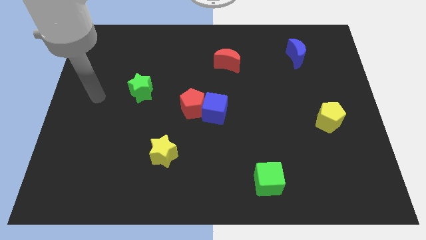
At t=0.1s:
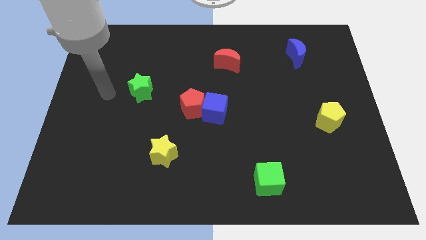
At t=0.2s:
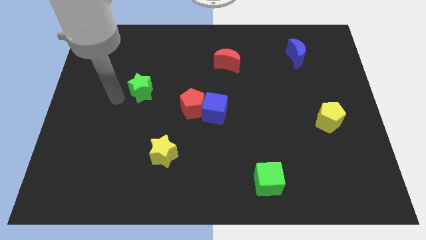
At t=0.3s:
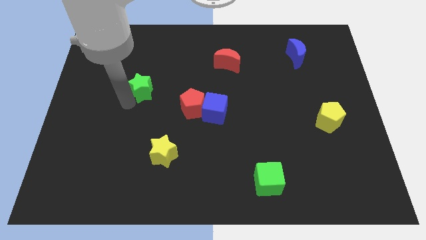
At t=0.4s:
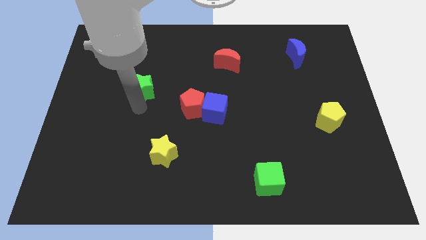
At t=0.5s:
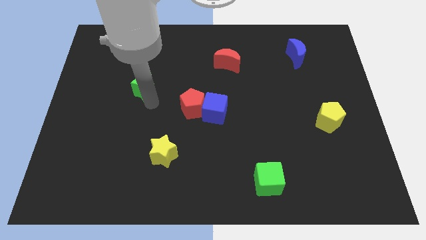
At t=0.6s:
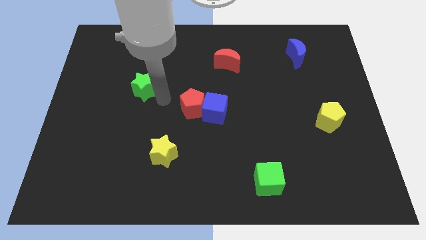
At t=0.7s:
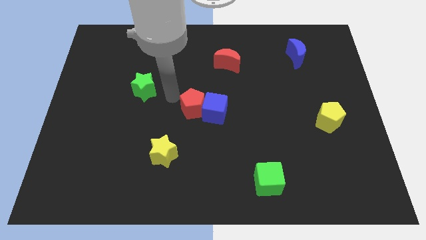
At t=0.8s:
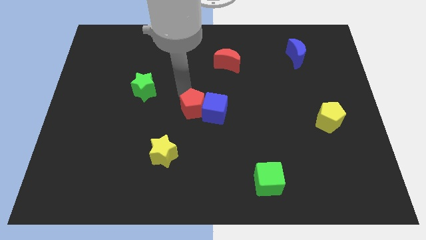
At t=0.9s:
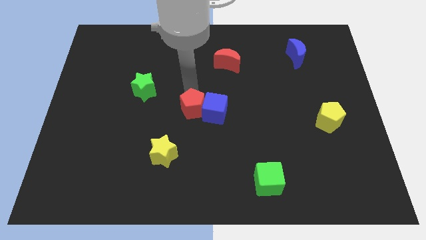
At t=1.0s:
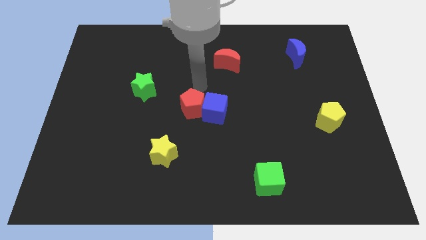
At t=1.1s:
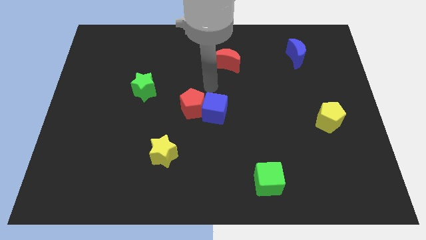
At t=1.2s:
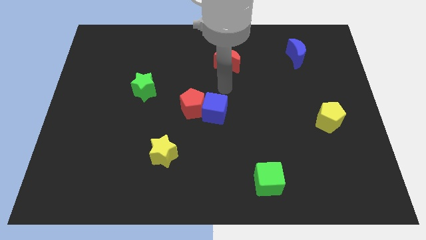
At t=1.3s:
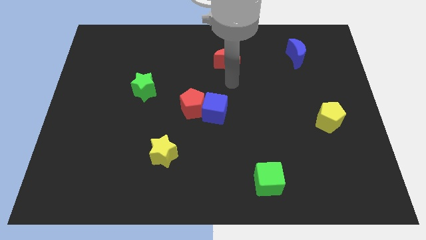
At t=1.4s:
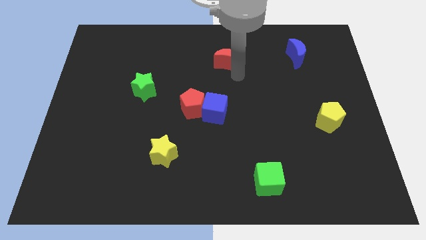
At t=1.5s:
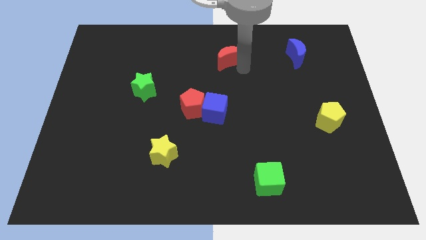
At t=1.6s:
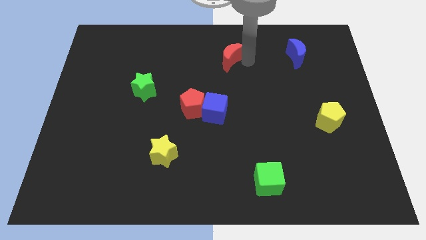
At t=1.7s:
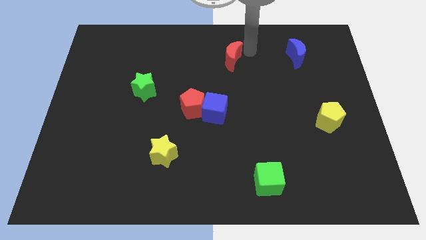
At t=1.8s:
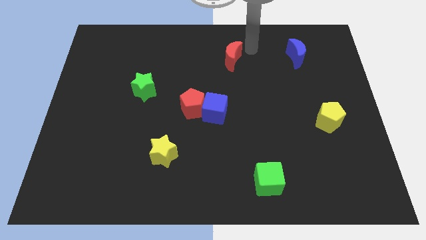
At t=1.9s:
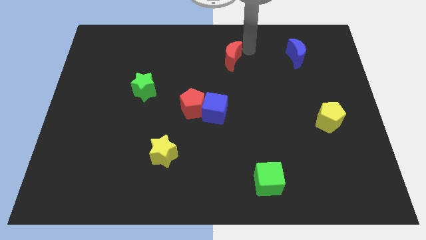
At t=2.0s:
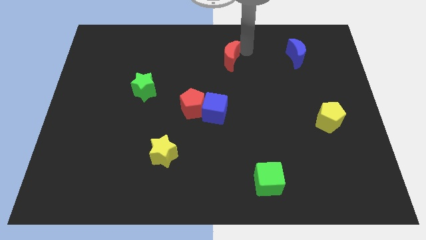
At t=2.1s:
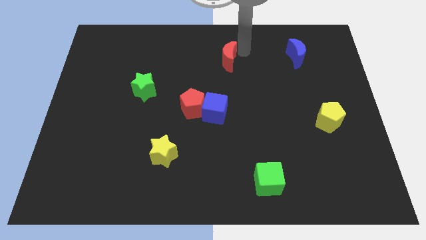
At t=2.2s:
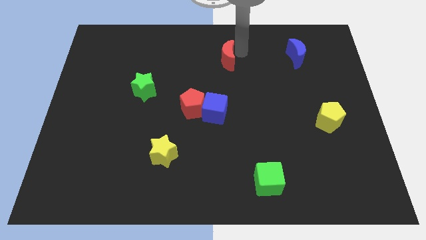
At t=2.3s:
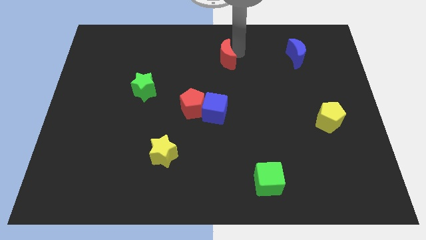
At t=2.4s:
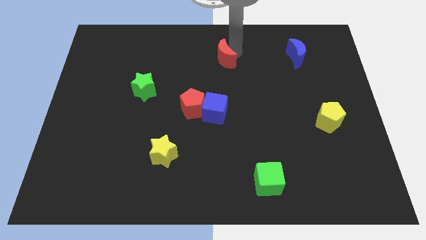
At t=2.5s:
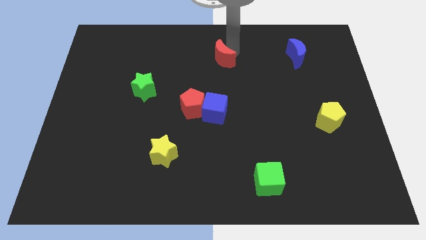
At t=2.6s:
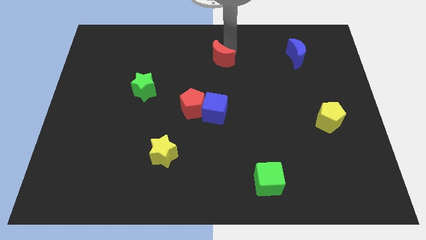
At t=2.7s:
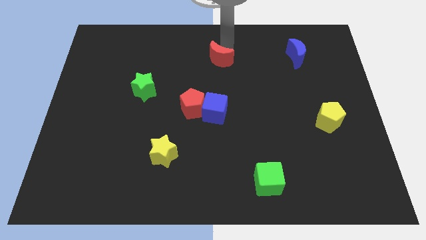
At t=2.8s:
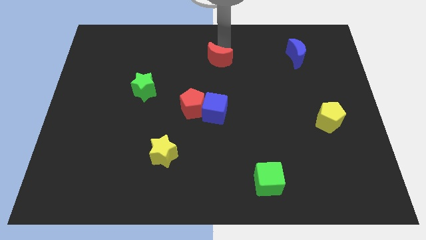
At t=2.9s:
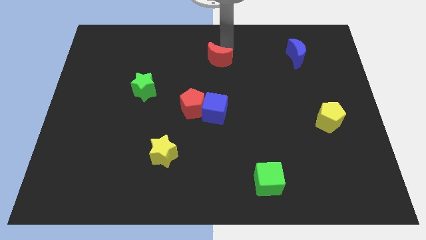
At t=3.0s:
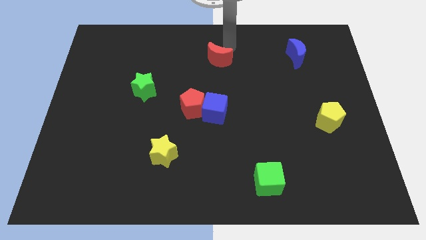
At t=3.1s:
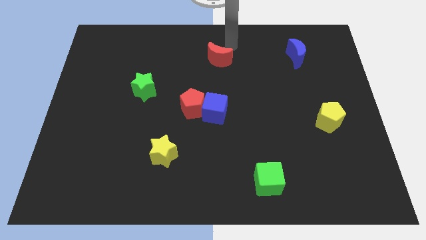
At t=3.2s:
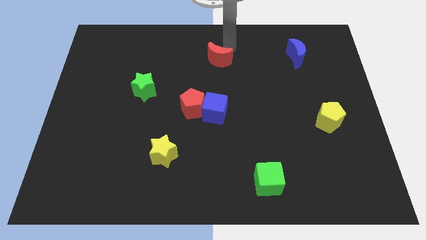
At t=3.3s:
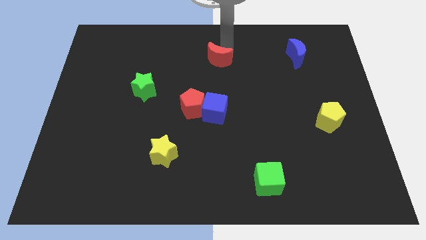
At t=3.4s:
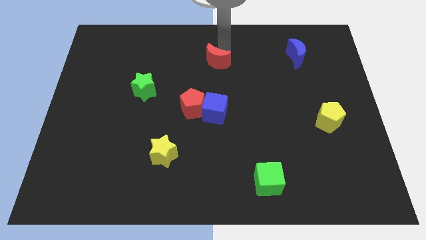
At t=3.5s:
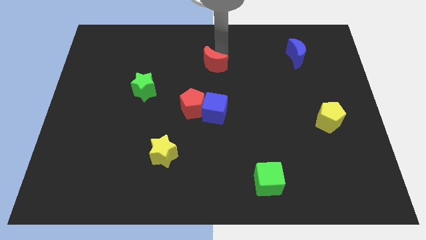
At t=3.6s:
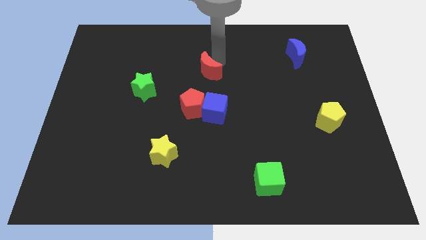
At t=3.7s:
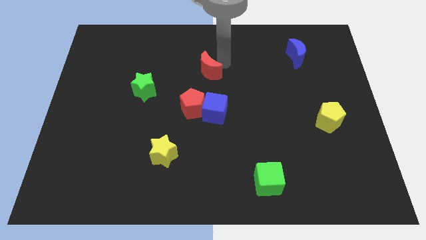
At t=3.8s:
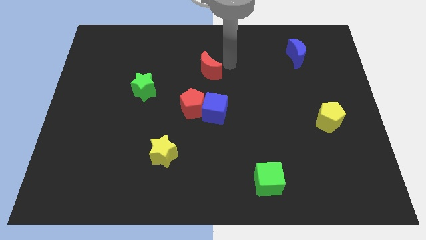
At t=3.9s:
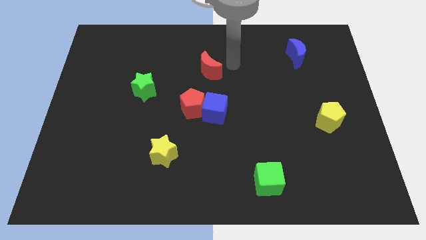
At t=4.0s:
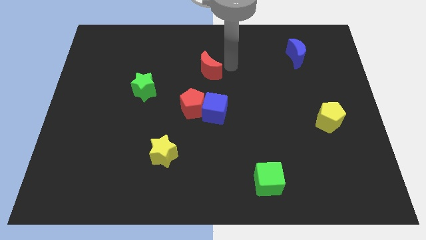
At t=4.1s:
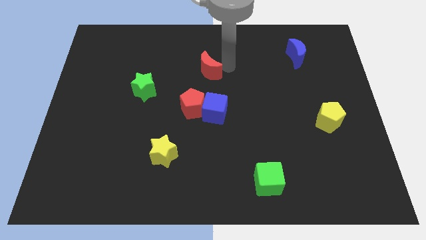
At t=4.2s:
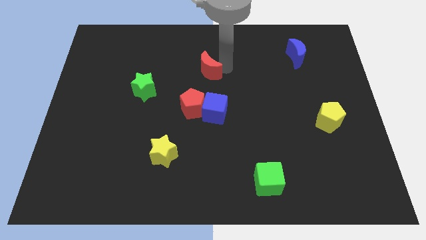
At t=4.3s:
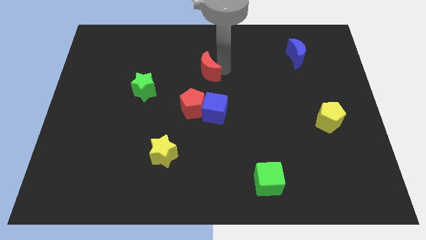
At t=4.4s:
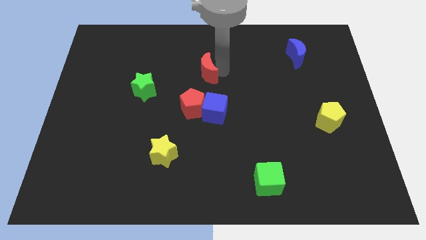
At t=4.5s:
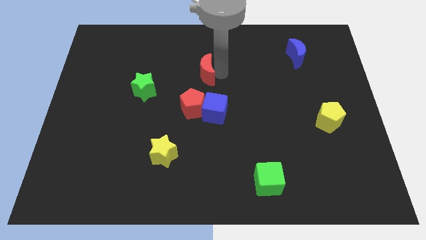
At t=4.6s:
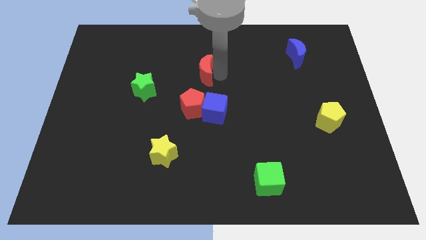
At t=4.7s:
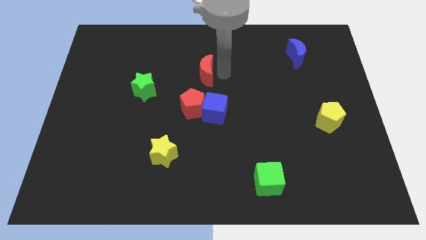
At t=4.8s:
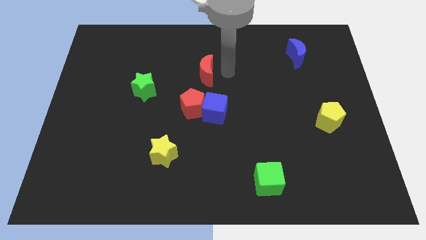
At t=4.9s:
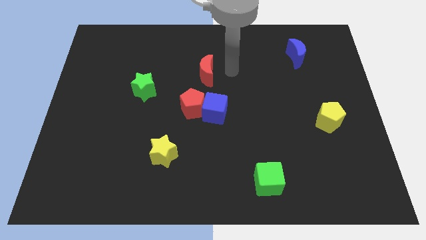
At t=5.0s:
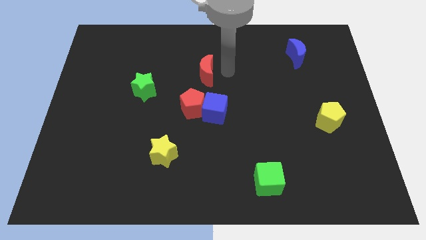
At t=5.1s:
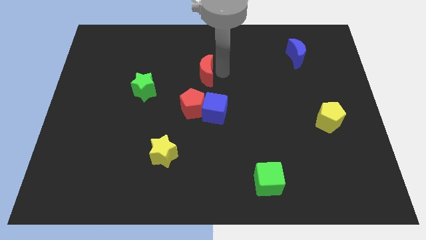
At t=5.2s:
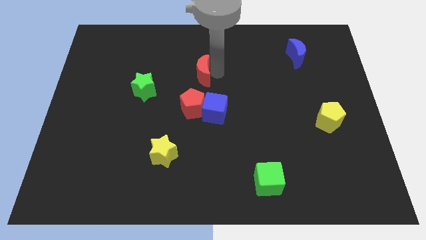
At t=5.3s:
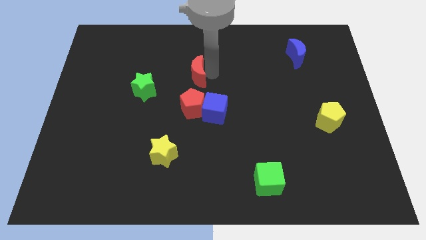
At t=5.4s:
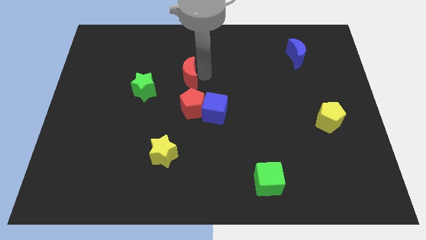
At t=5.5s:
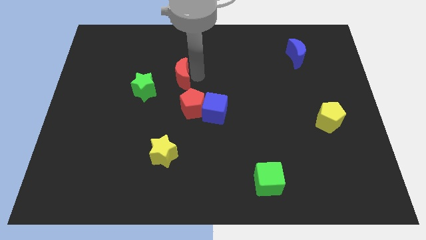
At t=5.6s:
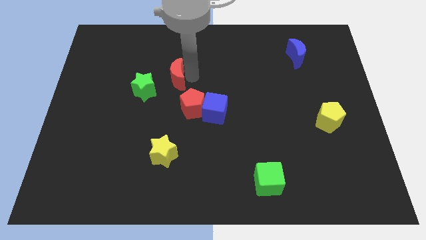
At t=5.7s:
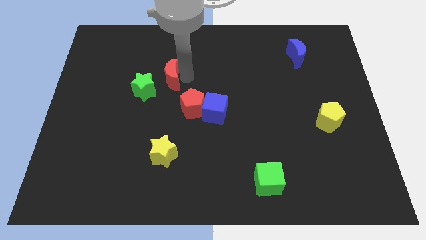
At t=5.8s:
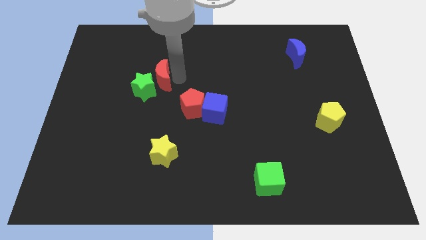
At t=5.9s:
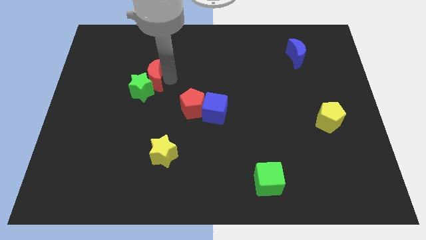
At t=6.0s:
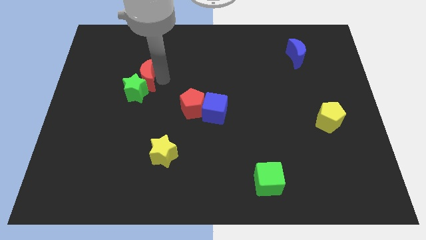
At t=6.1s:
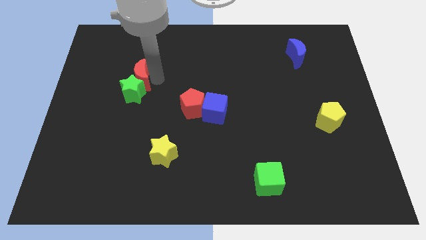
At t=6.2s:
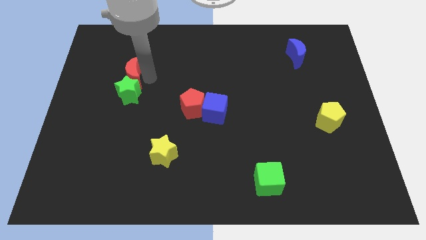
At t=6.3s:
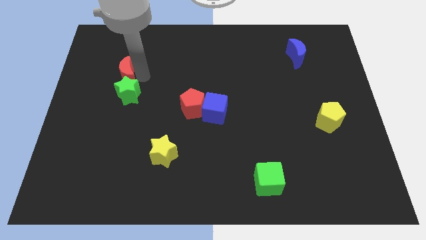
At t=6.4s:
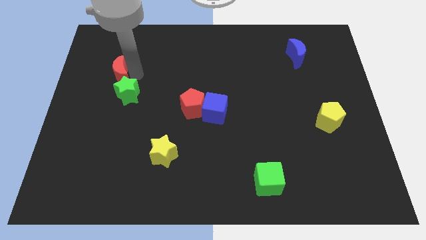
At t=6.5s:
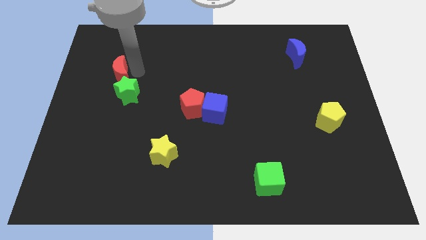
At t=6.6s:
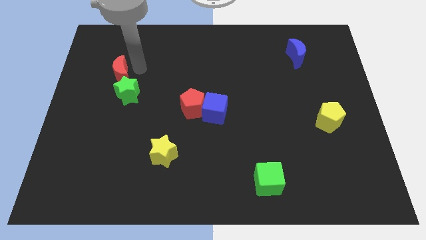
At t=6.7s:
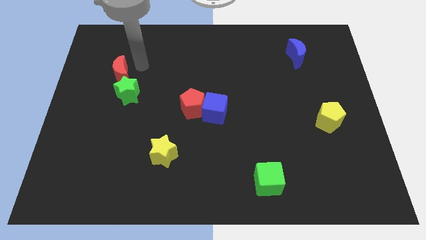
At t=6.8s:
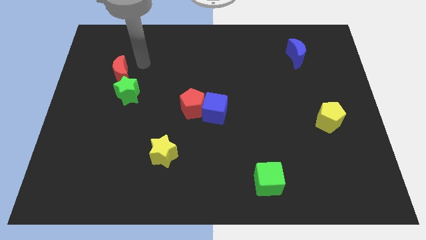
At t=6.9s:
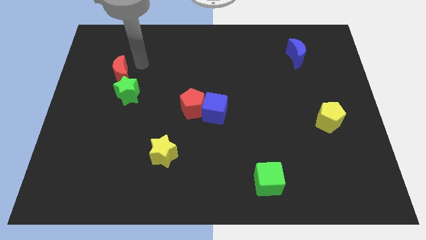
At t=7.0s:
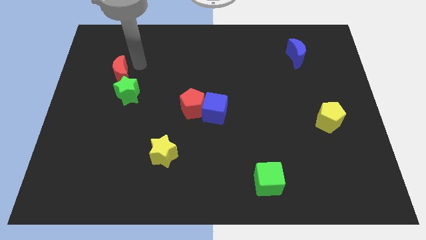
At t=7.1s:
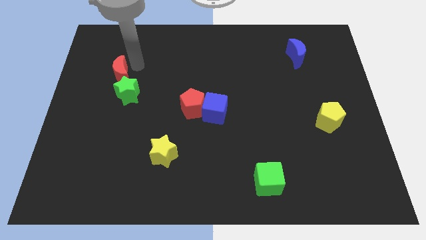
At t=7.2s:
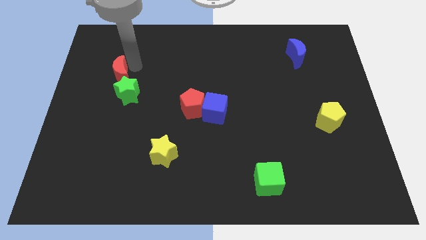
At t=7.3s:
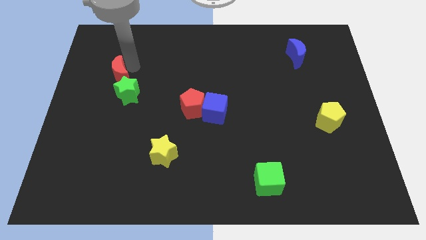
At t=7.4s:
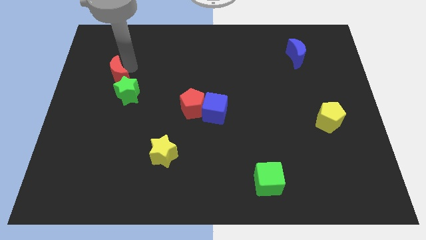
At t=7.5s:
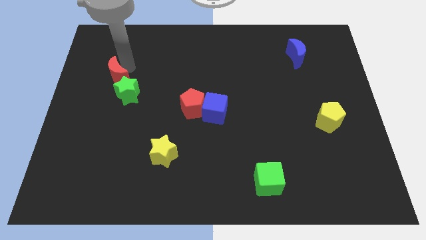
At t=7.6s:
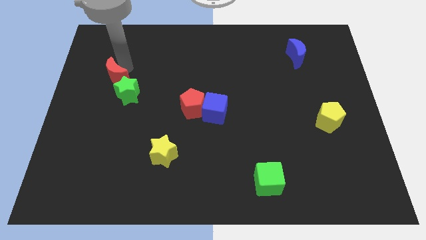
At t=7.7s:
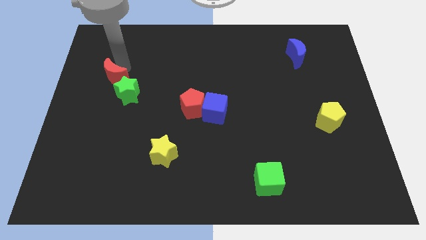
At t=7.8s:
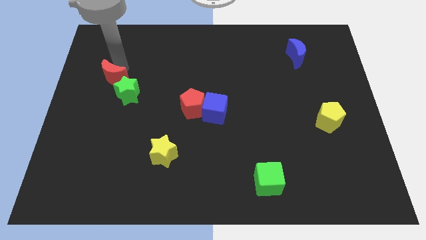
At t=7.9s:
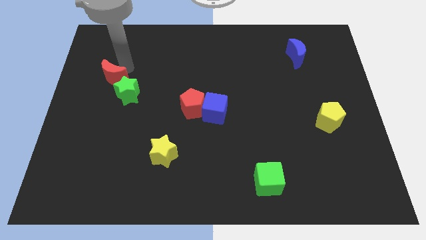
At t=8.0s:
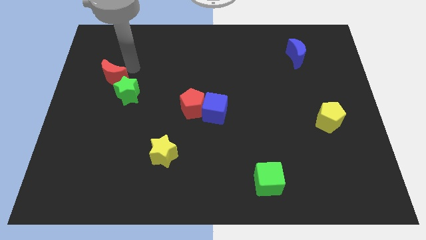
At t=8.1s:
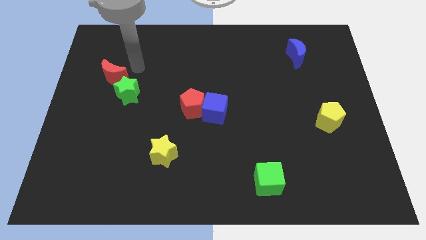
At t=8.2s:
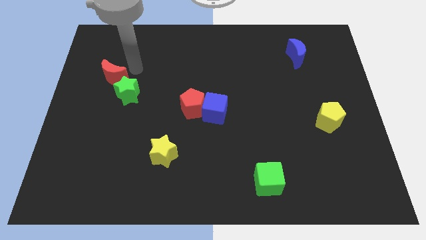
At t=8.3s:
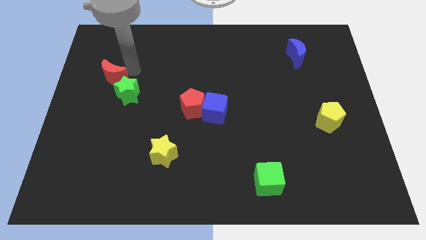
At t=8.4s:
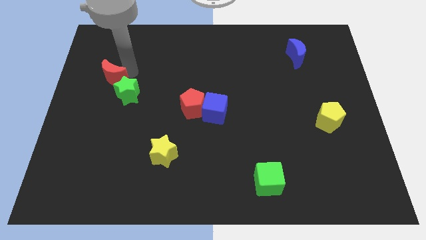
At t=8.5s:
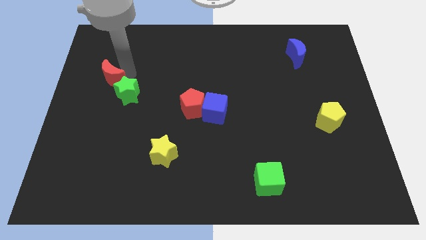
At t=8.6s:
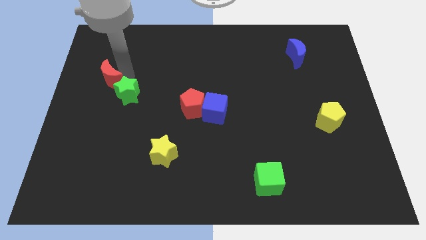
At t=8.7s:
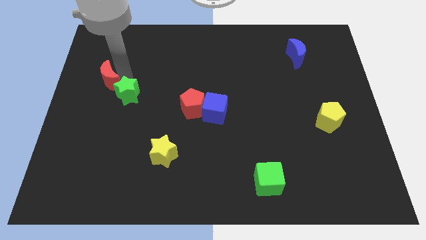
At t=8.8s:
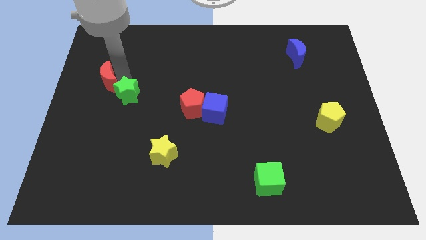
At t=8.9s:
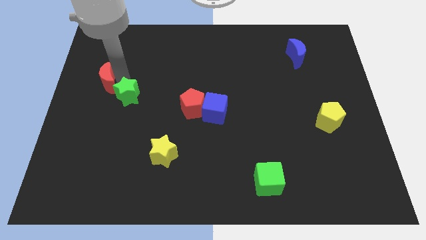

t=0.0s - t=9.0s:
move the red moon to the center left
